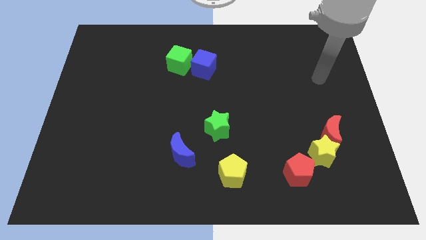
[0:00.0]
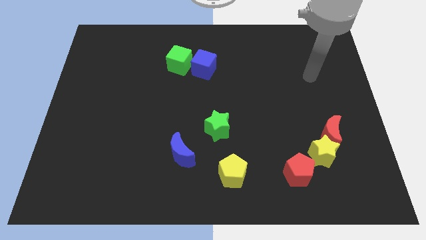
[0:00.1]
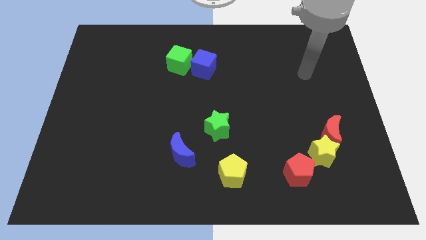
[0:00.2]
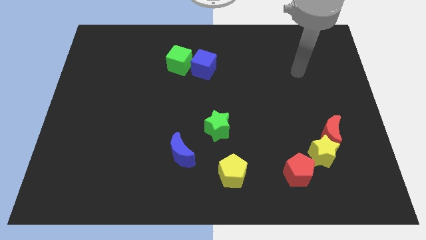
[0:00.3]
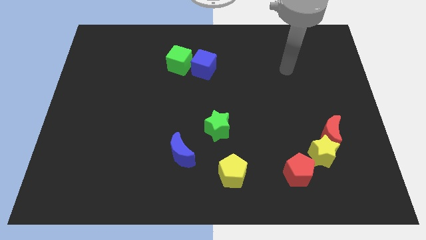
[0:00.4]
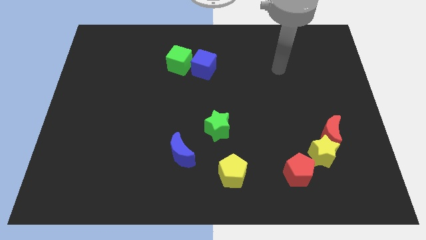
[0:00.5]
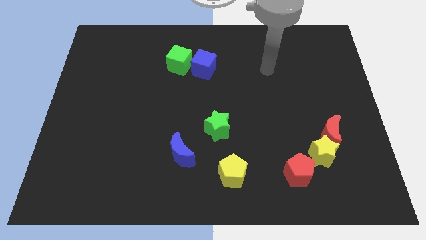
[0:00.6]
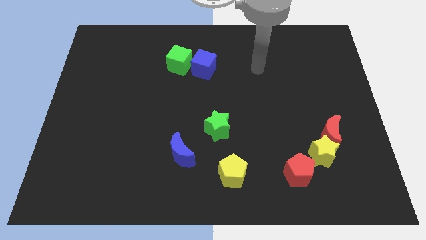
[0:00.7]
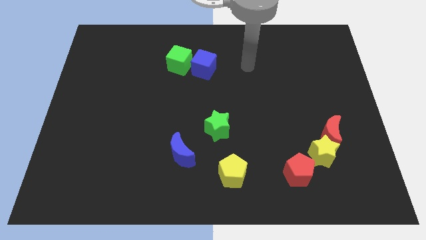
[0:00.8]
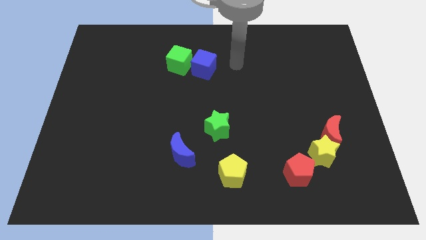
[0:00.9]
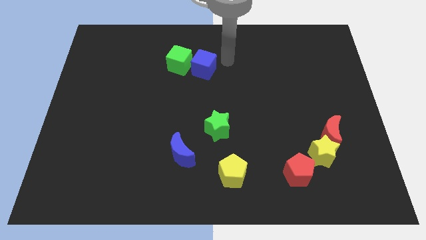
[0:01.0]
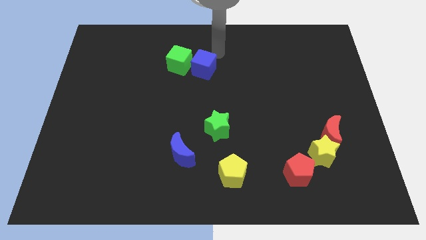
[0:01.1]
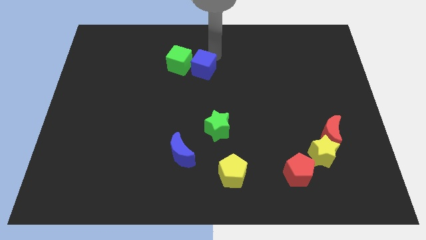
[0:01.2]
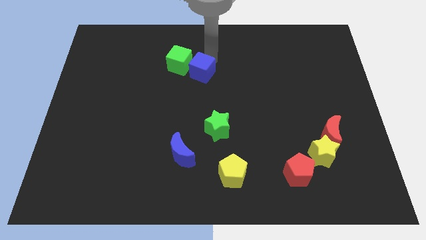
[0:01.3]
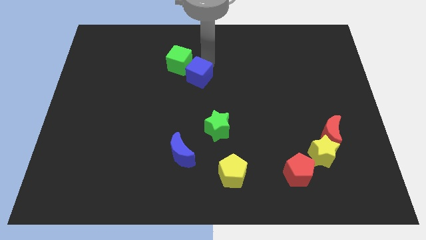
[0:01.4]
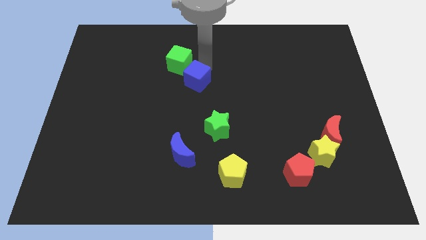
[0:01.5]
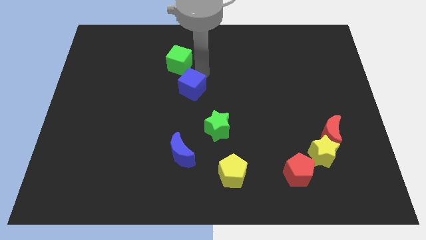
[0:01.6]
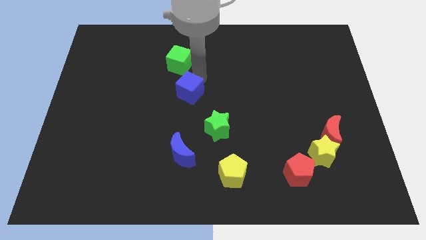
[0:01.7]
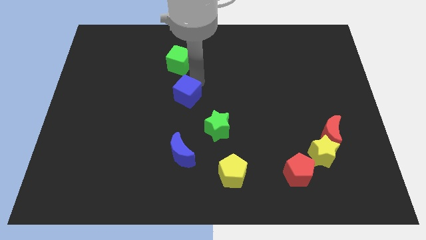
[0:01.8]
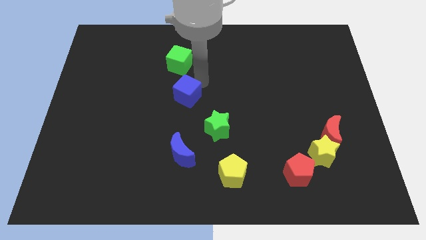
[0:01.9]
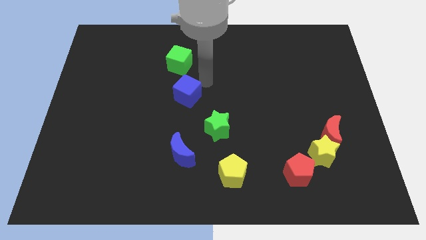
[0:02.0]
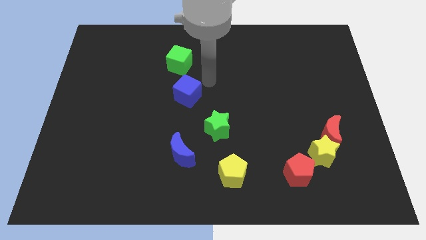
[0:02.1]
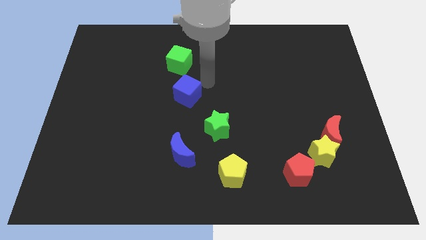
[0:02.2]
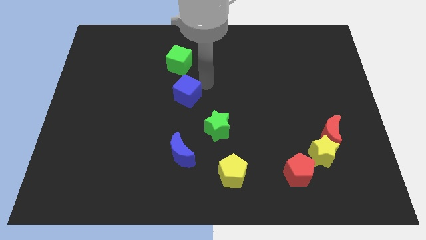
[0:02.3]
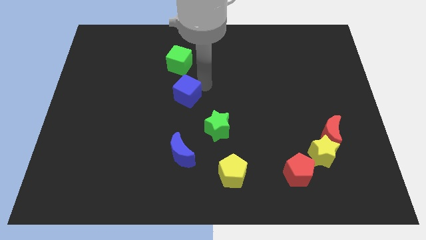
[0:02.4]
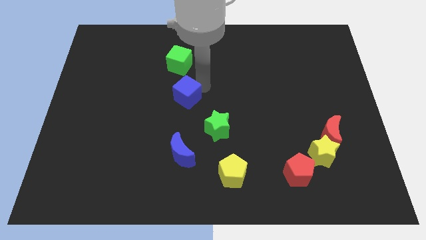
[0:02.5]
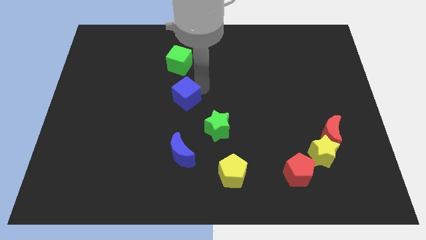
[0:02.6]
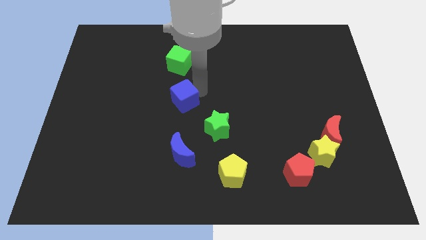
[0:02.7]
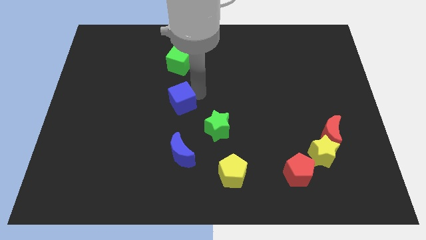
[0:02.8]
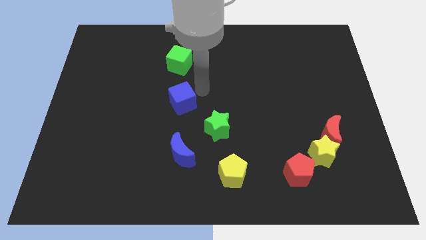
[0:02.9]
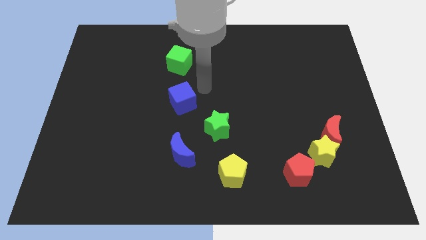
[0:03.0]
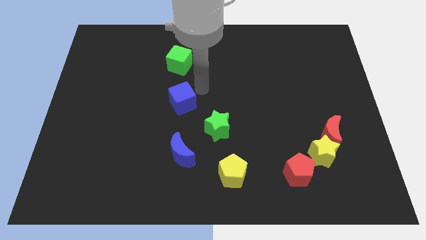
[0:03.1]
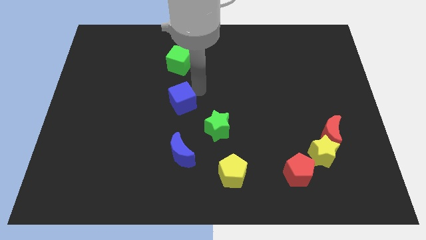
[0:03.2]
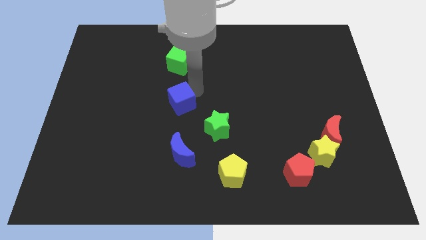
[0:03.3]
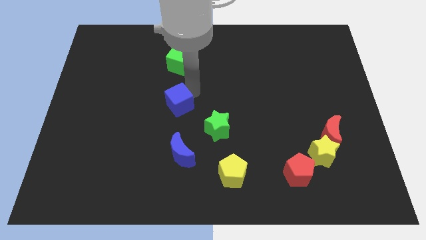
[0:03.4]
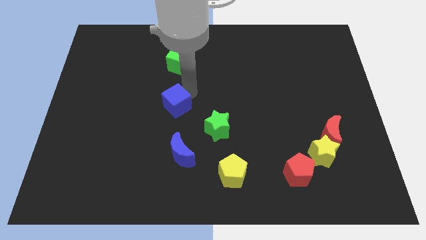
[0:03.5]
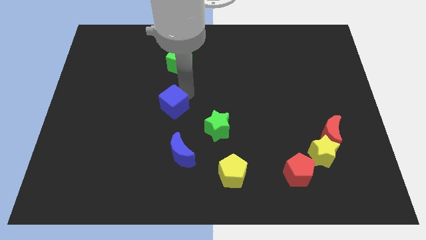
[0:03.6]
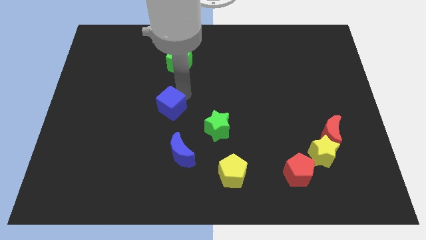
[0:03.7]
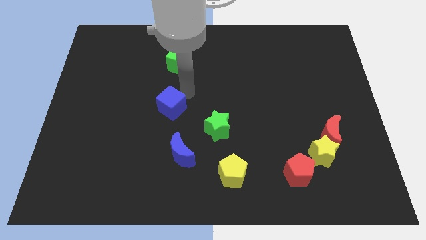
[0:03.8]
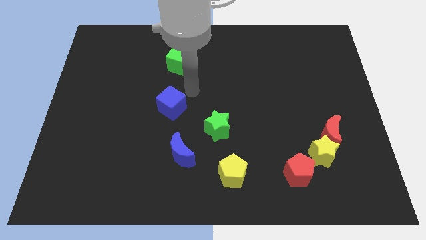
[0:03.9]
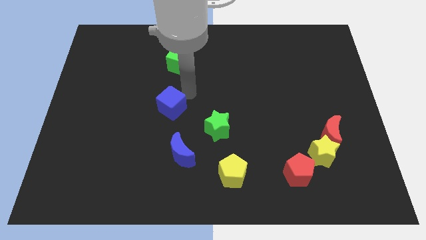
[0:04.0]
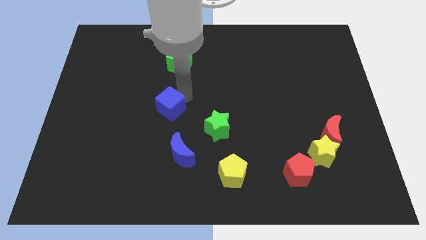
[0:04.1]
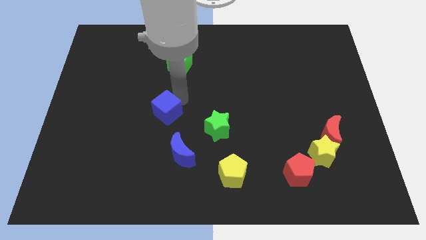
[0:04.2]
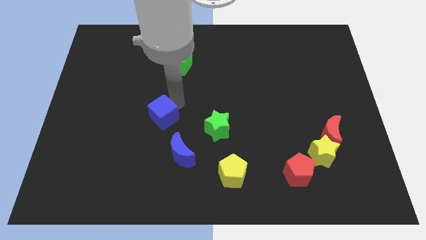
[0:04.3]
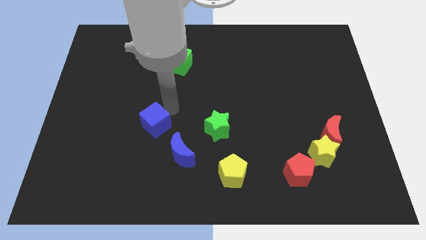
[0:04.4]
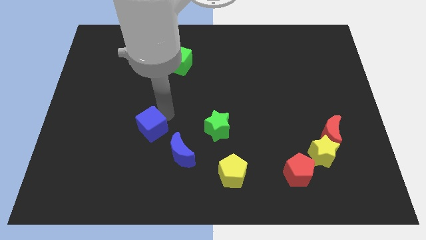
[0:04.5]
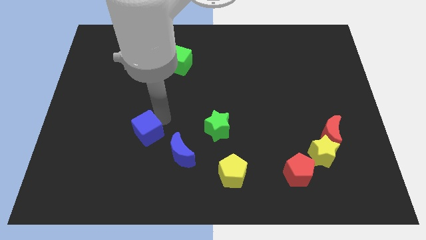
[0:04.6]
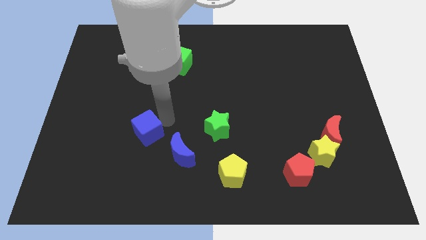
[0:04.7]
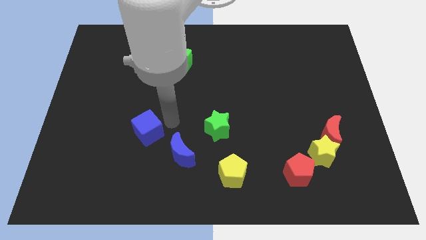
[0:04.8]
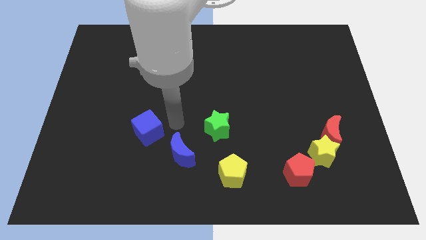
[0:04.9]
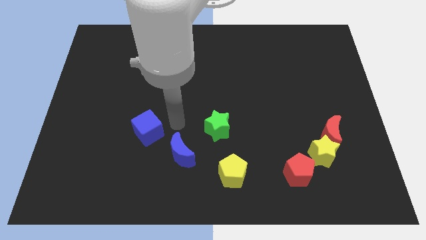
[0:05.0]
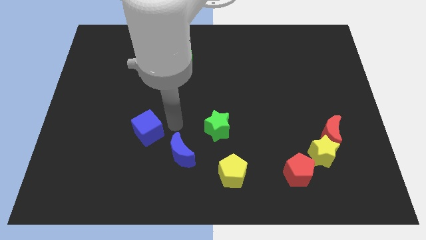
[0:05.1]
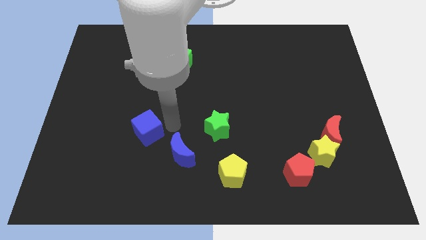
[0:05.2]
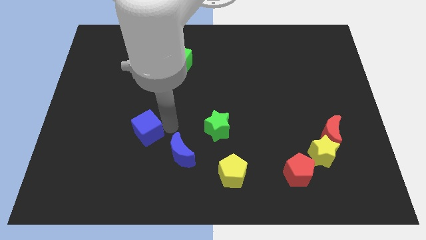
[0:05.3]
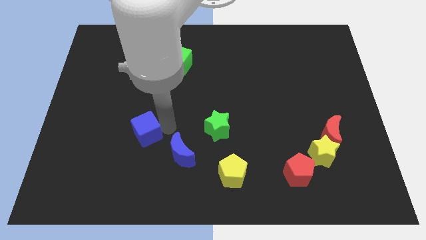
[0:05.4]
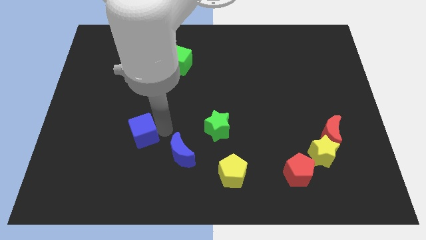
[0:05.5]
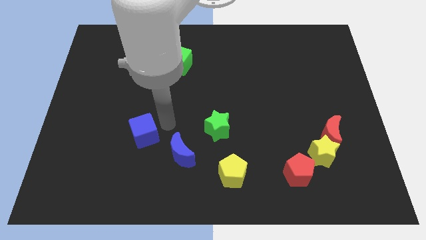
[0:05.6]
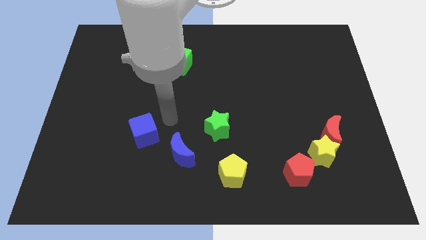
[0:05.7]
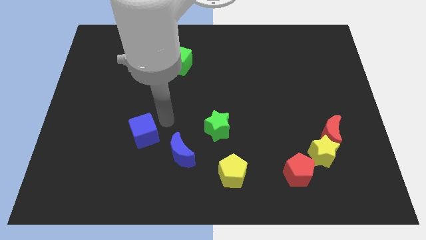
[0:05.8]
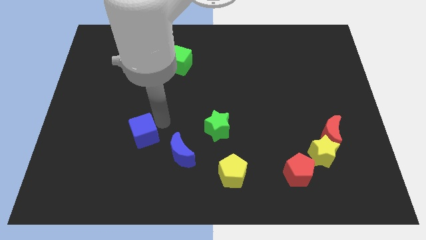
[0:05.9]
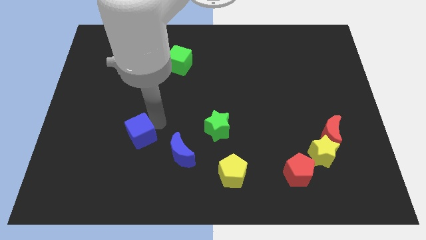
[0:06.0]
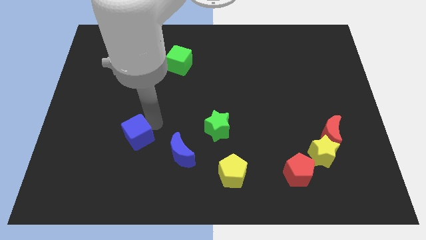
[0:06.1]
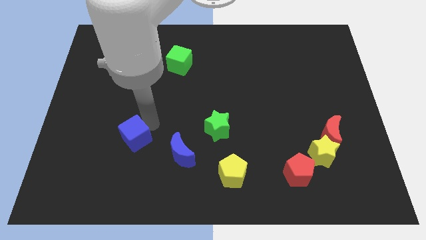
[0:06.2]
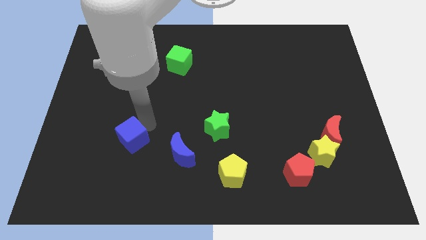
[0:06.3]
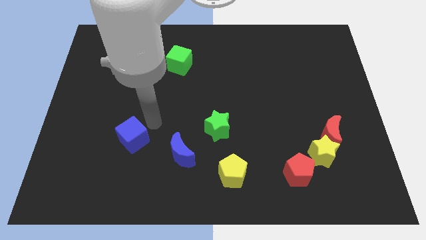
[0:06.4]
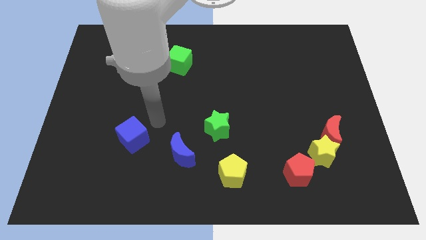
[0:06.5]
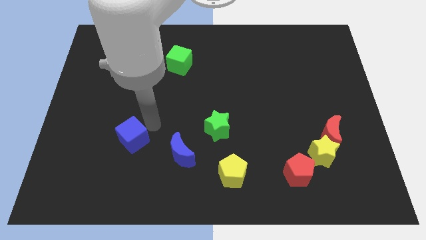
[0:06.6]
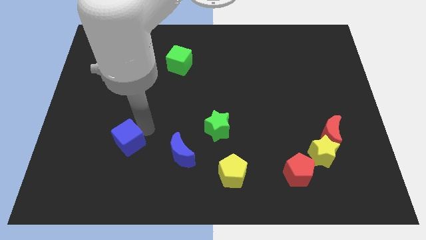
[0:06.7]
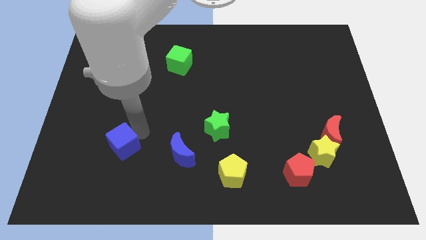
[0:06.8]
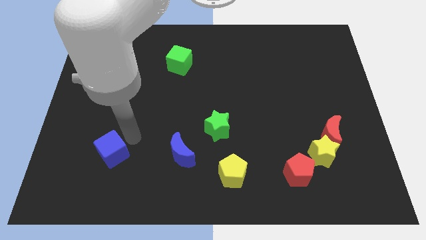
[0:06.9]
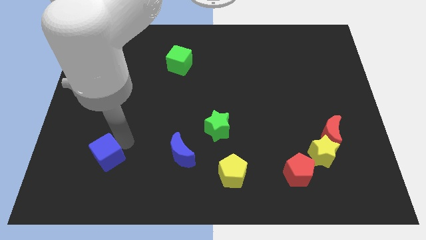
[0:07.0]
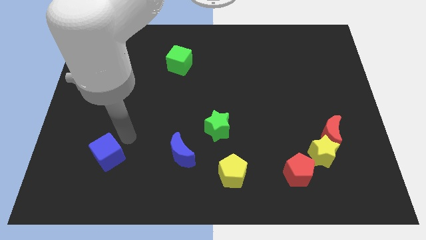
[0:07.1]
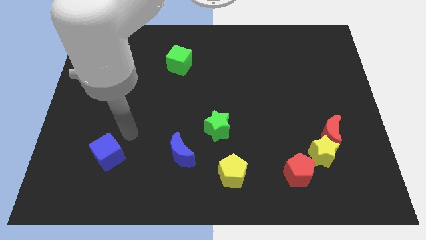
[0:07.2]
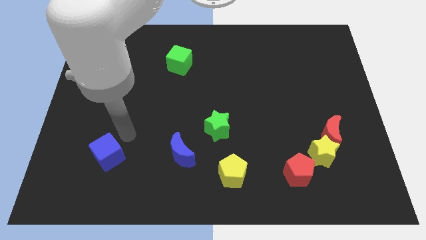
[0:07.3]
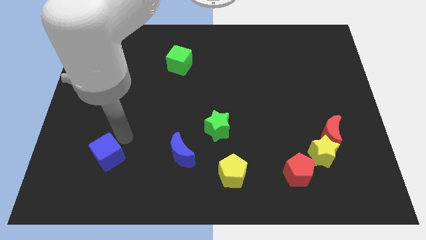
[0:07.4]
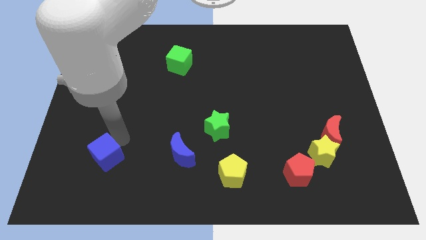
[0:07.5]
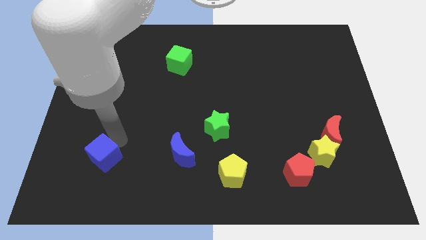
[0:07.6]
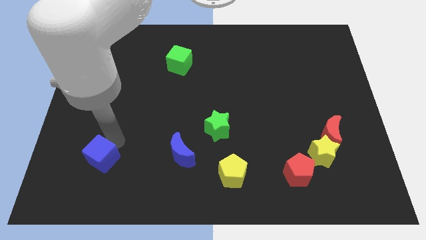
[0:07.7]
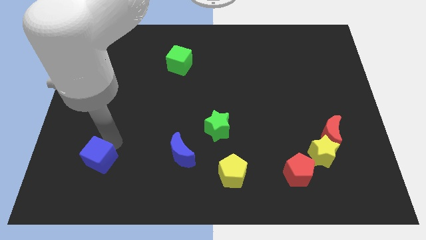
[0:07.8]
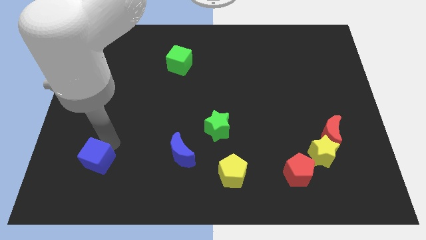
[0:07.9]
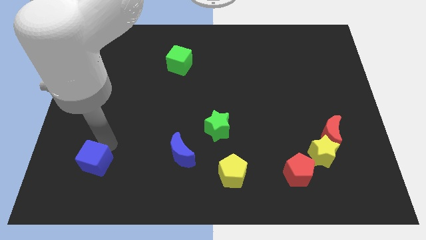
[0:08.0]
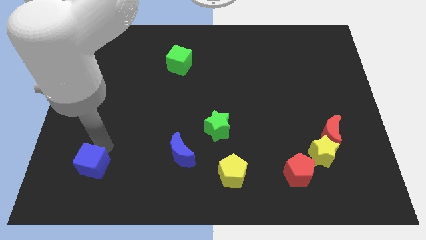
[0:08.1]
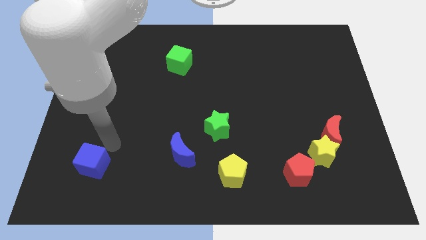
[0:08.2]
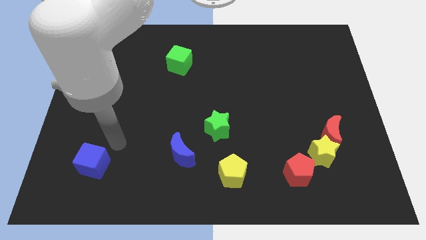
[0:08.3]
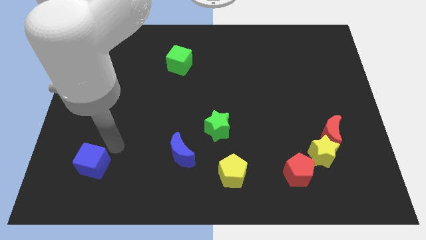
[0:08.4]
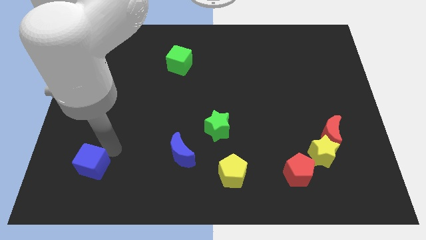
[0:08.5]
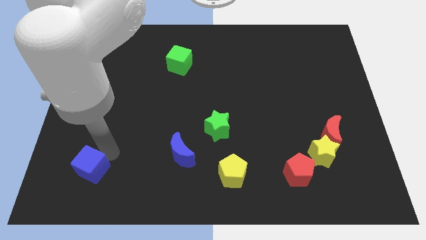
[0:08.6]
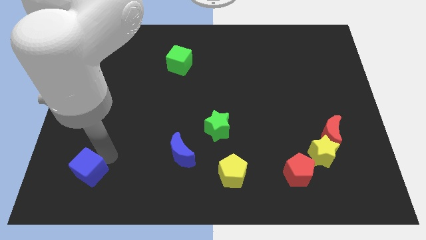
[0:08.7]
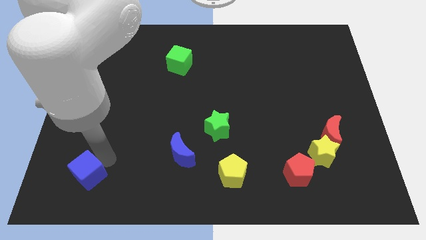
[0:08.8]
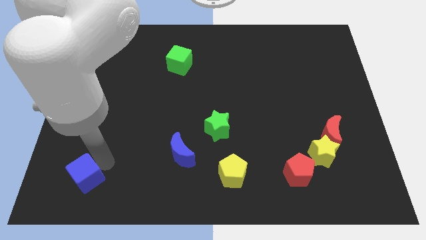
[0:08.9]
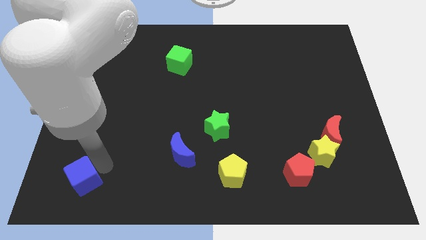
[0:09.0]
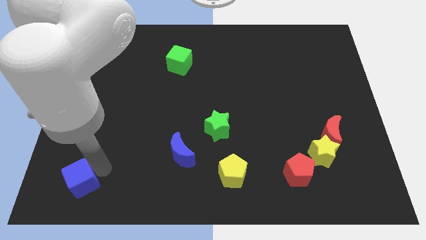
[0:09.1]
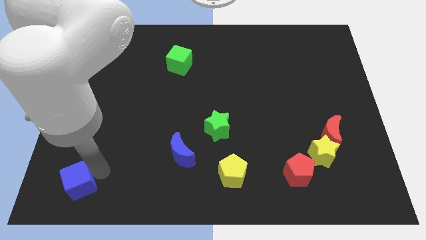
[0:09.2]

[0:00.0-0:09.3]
push the blue cube to the bottom left of the board
